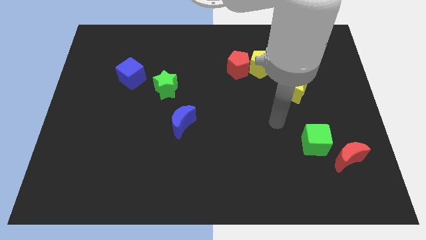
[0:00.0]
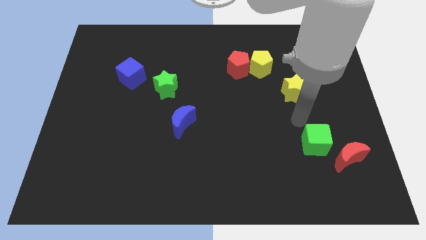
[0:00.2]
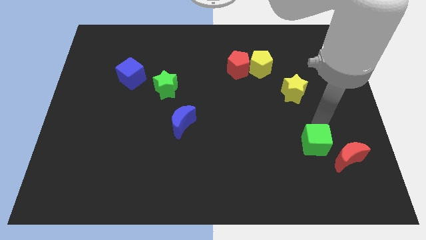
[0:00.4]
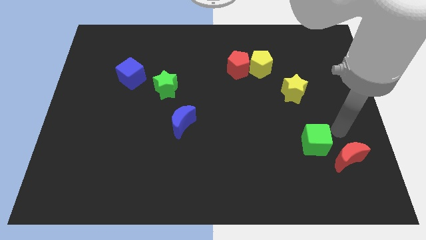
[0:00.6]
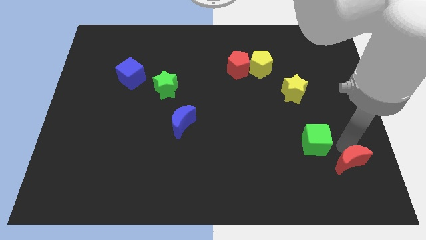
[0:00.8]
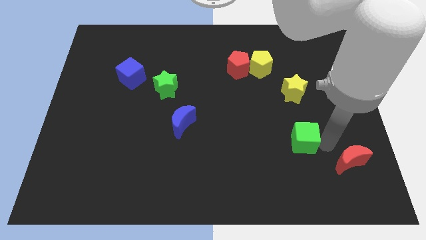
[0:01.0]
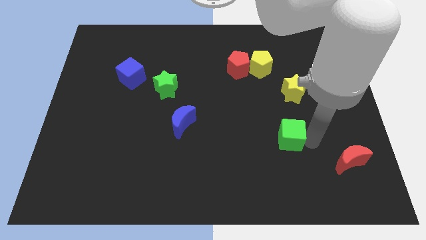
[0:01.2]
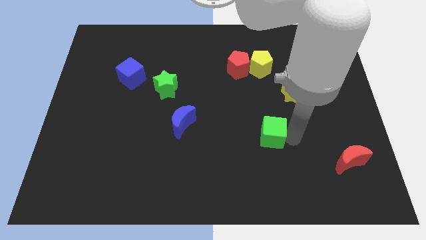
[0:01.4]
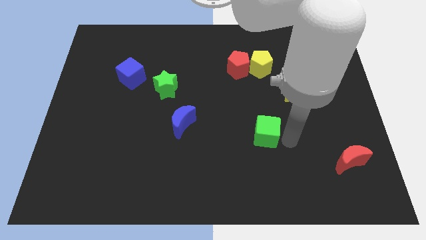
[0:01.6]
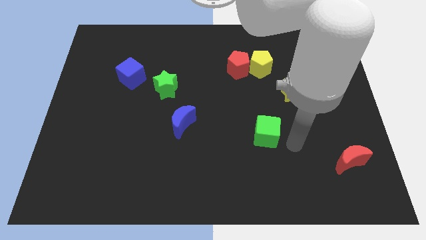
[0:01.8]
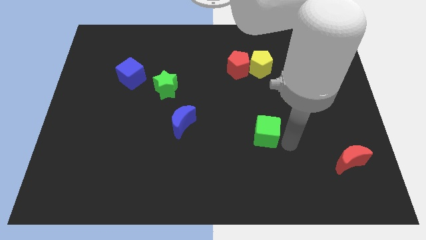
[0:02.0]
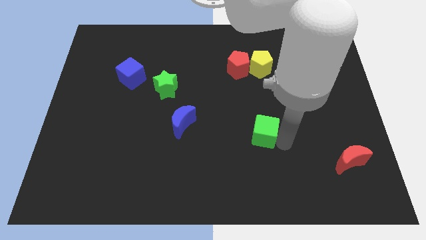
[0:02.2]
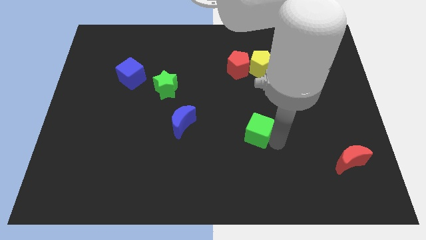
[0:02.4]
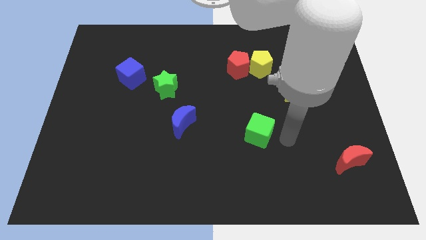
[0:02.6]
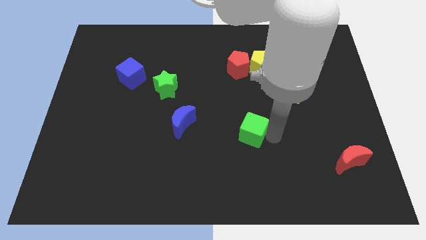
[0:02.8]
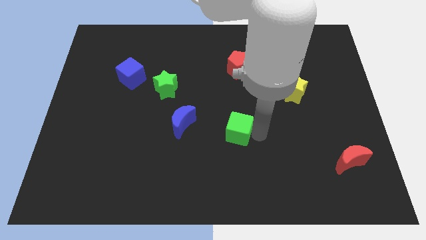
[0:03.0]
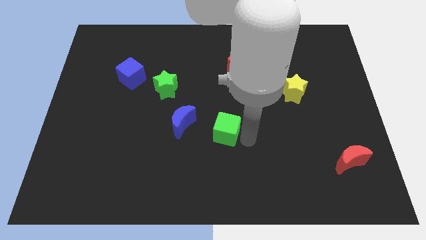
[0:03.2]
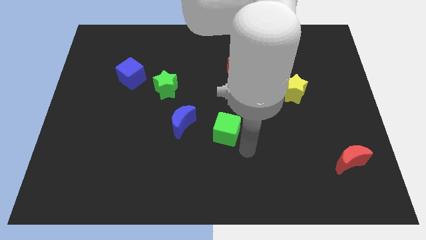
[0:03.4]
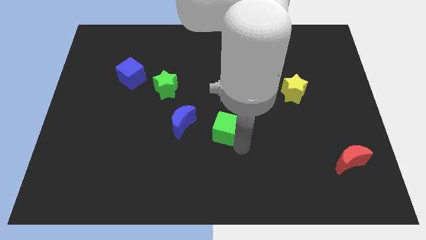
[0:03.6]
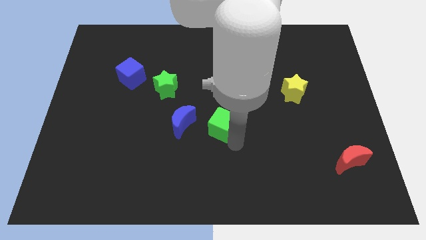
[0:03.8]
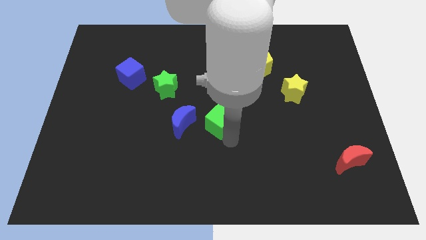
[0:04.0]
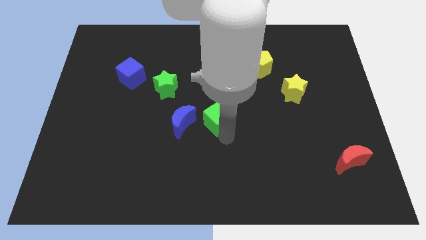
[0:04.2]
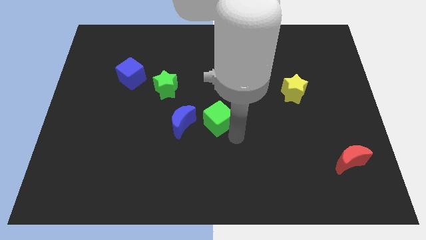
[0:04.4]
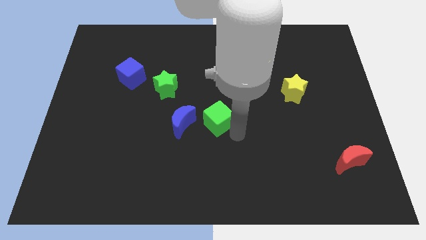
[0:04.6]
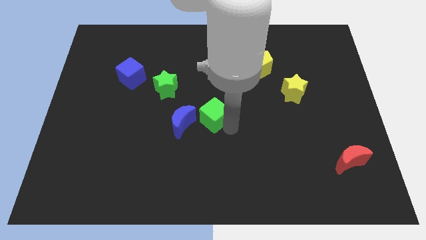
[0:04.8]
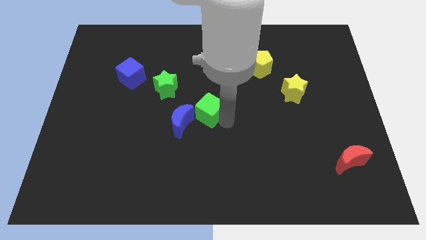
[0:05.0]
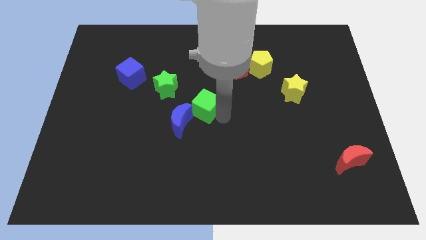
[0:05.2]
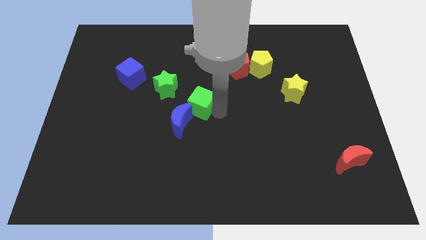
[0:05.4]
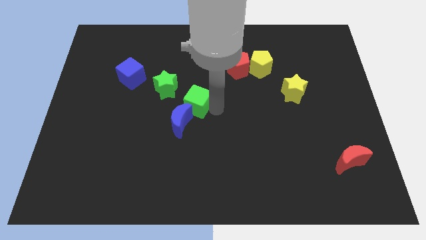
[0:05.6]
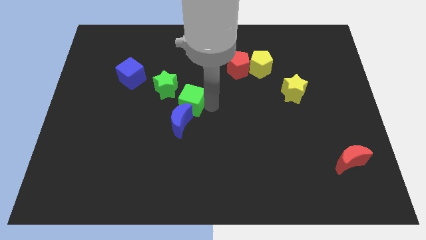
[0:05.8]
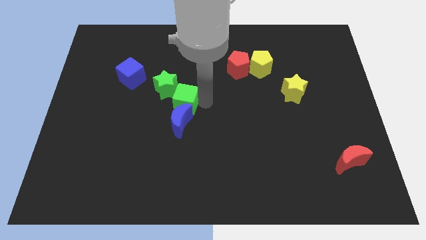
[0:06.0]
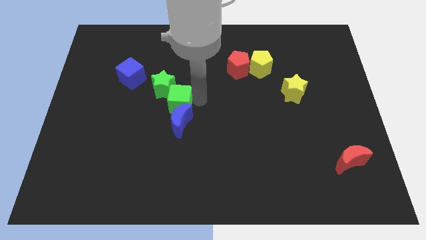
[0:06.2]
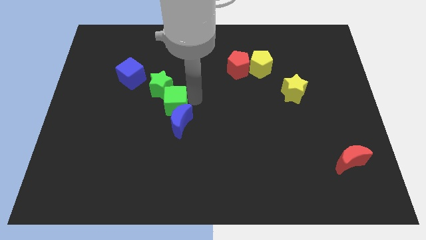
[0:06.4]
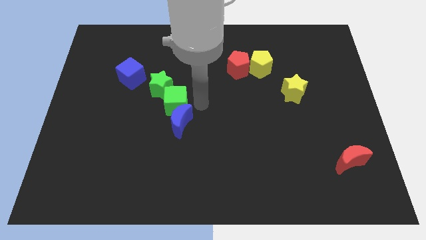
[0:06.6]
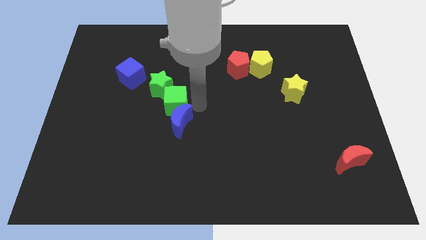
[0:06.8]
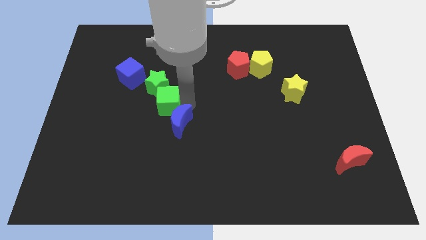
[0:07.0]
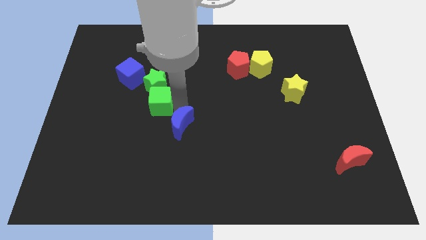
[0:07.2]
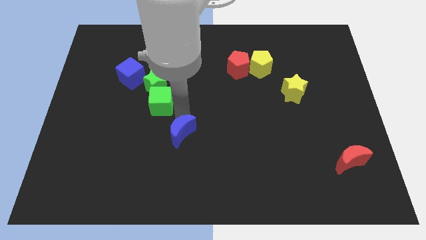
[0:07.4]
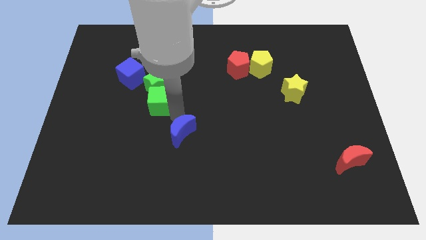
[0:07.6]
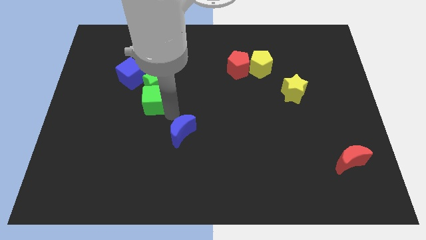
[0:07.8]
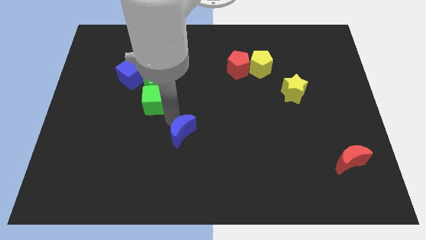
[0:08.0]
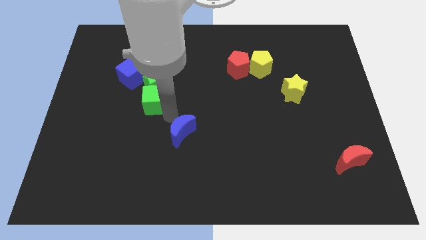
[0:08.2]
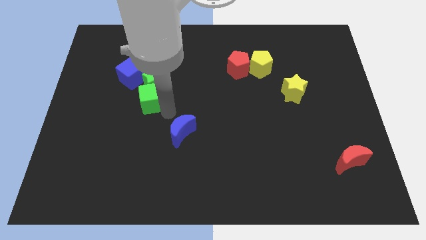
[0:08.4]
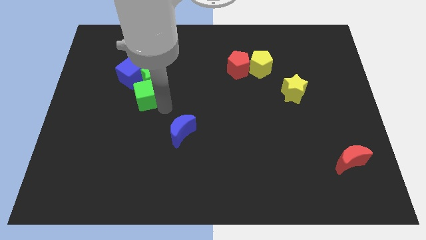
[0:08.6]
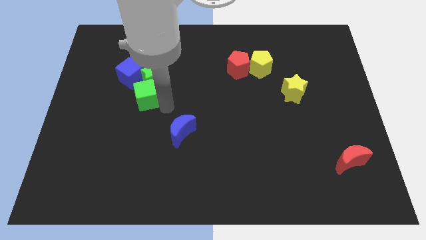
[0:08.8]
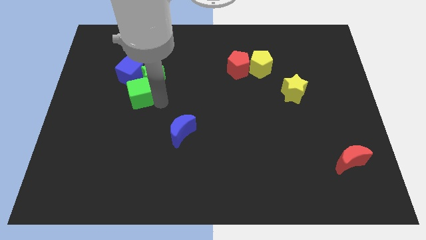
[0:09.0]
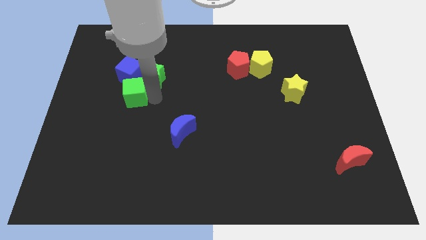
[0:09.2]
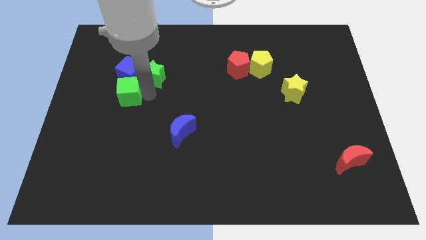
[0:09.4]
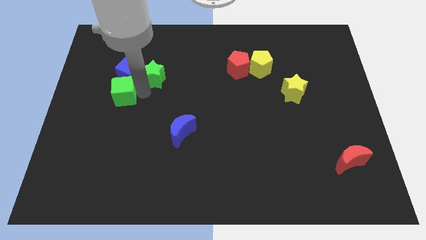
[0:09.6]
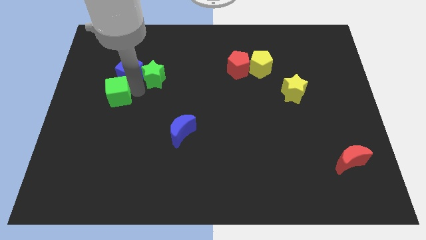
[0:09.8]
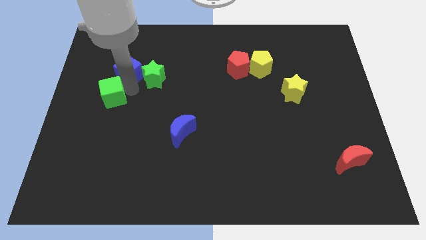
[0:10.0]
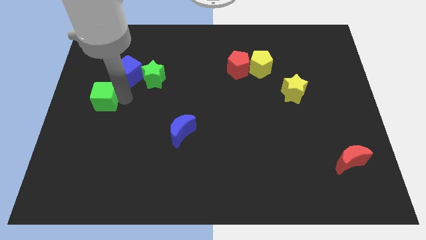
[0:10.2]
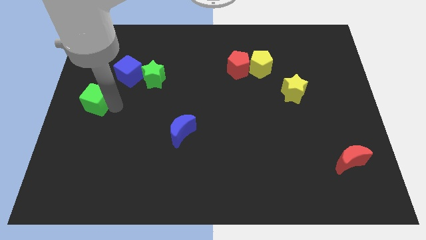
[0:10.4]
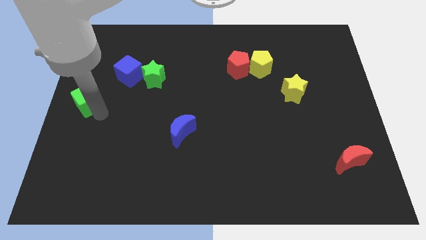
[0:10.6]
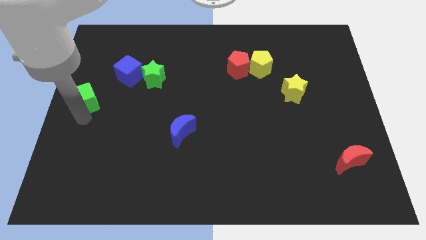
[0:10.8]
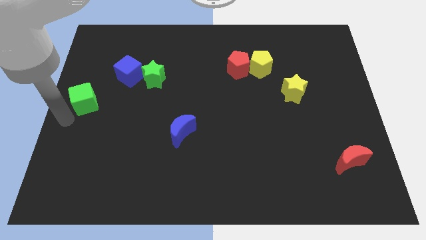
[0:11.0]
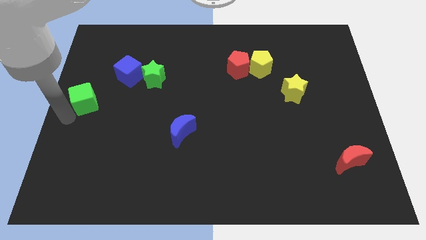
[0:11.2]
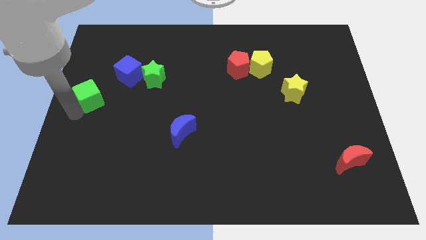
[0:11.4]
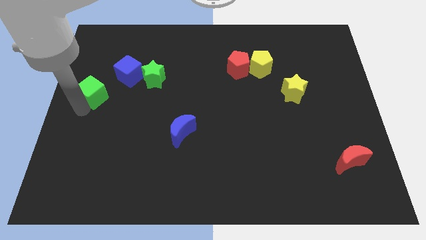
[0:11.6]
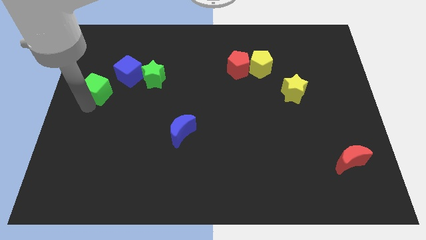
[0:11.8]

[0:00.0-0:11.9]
move the green cube to the left of the green star

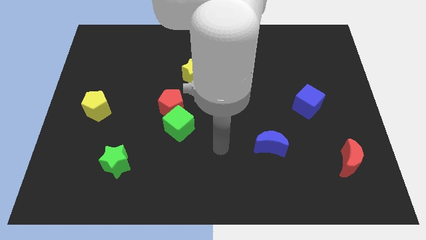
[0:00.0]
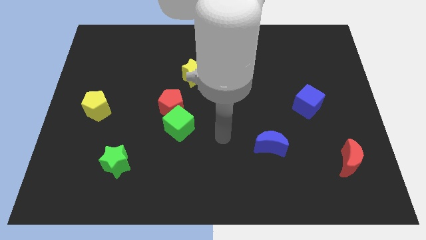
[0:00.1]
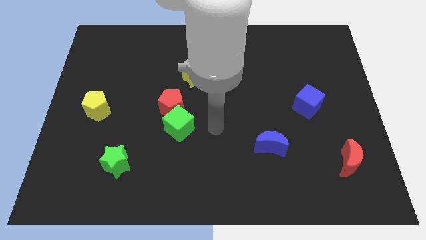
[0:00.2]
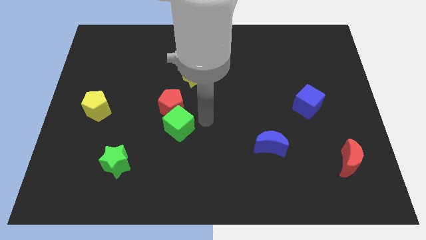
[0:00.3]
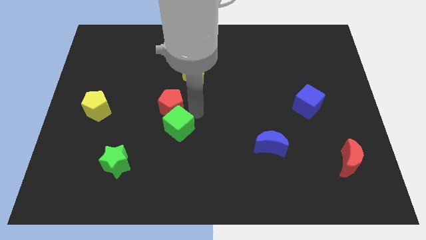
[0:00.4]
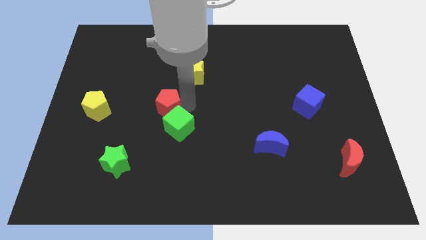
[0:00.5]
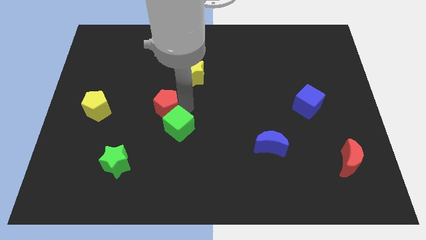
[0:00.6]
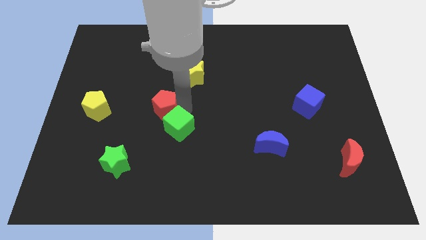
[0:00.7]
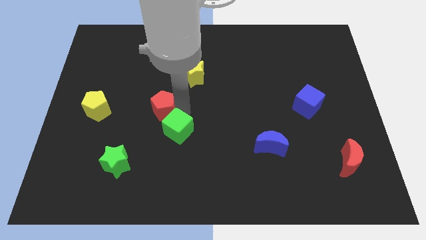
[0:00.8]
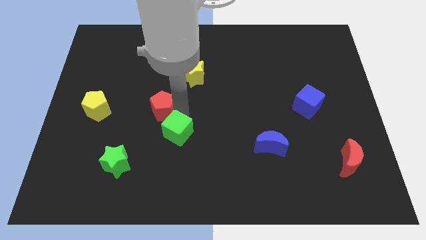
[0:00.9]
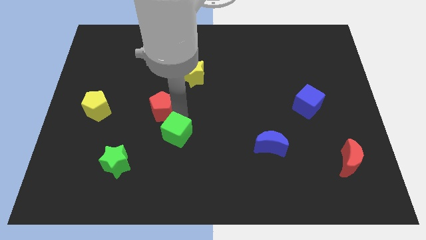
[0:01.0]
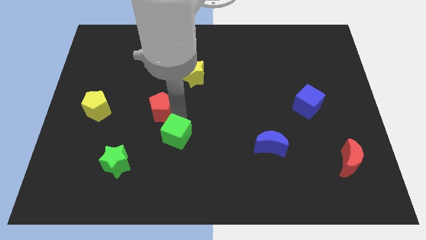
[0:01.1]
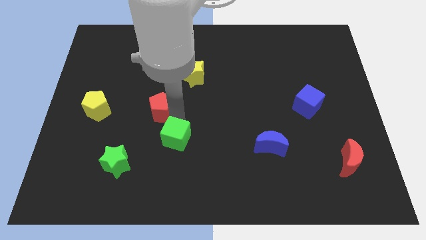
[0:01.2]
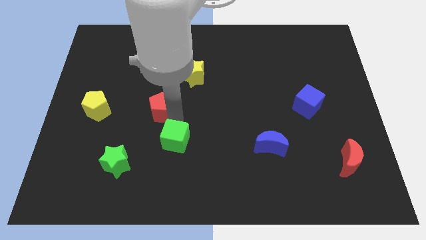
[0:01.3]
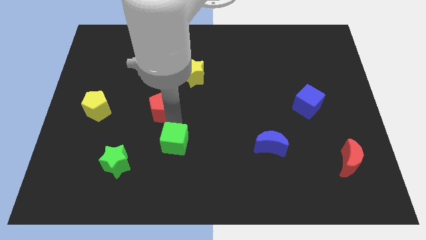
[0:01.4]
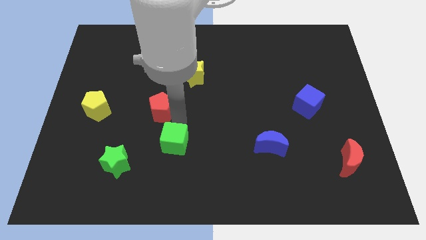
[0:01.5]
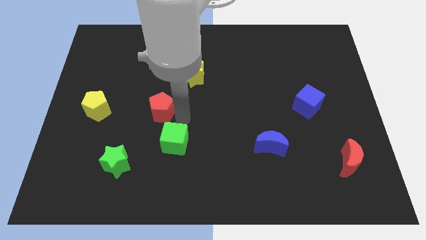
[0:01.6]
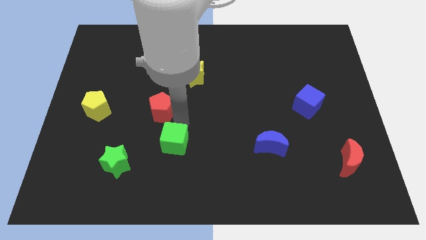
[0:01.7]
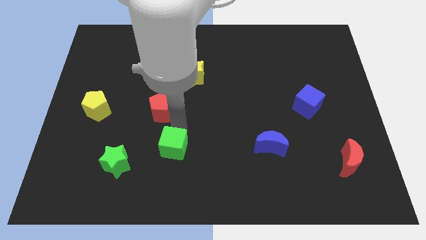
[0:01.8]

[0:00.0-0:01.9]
put the green cube just right of the green star
